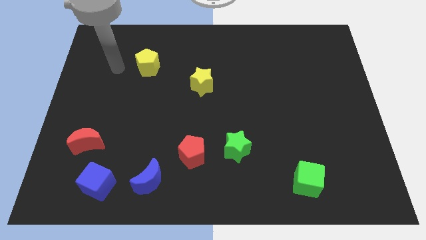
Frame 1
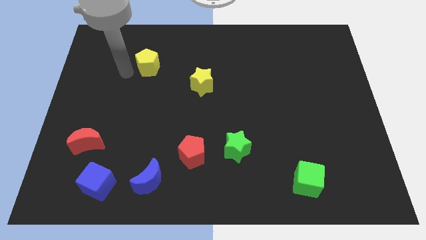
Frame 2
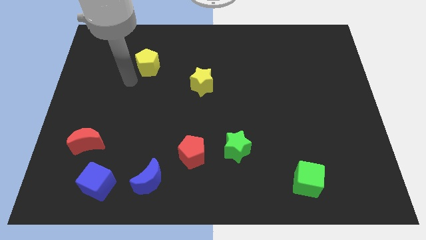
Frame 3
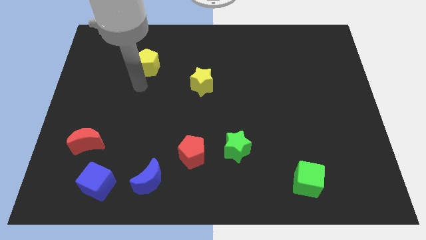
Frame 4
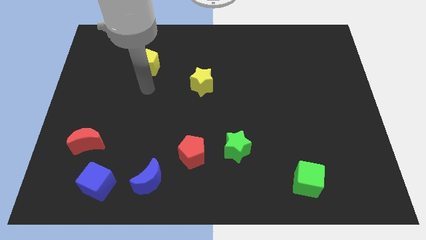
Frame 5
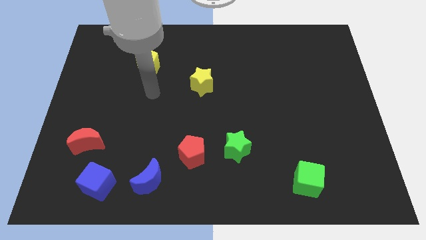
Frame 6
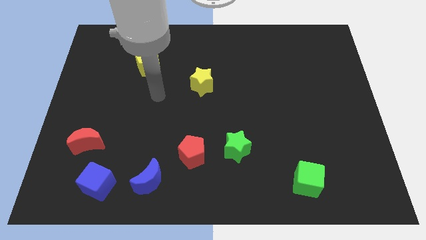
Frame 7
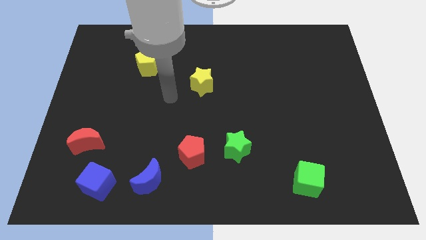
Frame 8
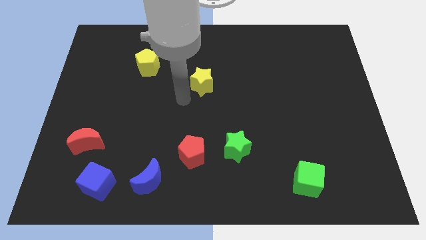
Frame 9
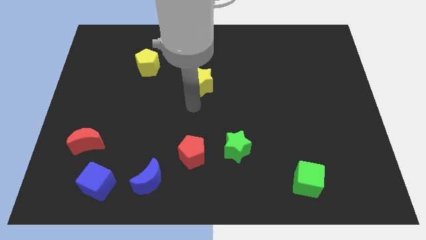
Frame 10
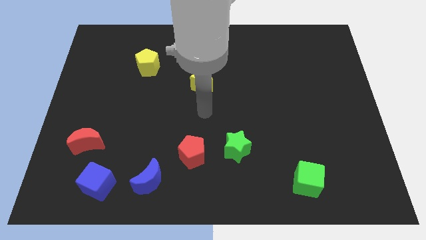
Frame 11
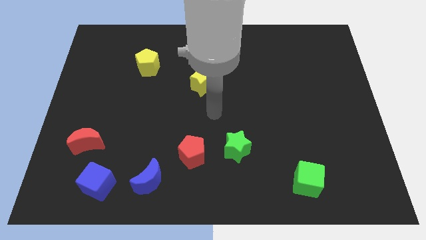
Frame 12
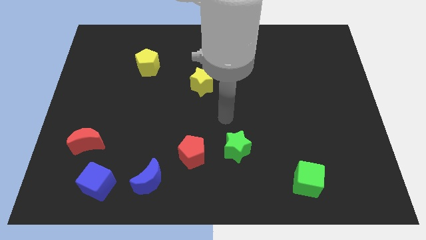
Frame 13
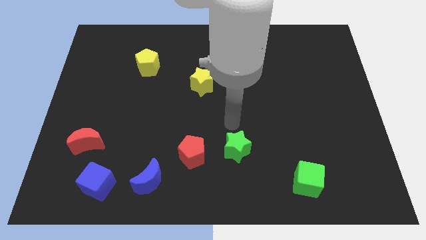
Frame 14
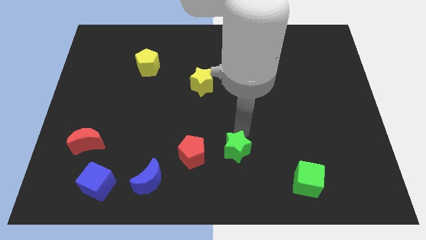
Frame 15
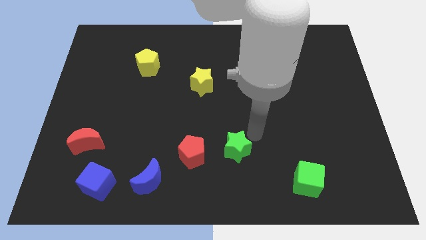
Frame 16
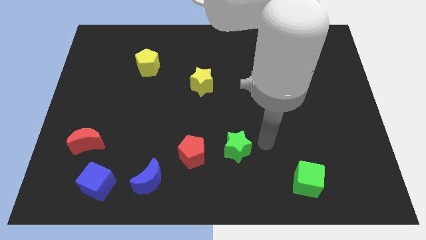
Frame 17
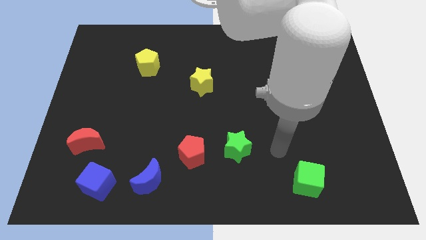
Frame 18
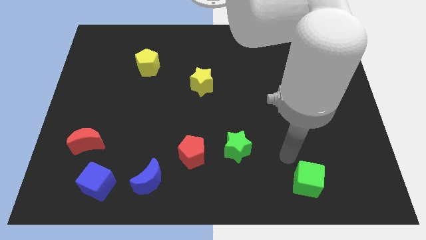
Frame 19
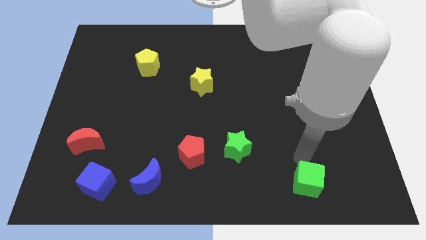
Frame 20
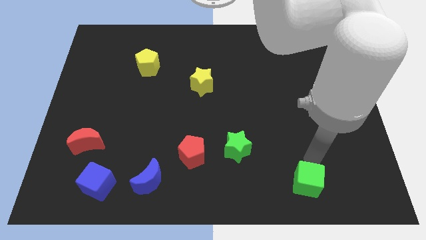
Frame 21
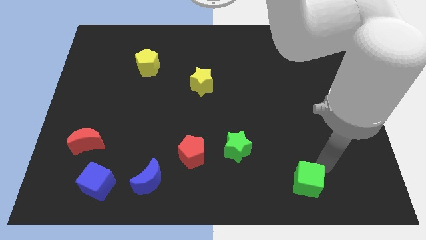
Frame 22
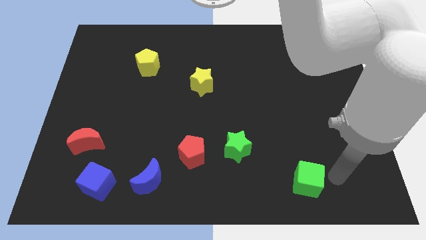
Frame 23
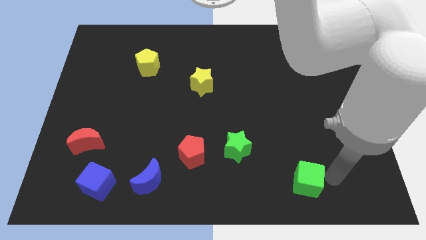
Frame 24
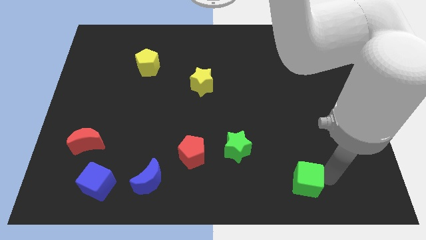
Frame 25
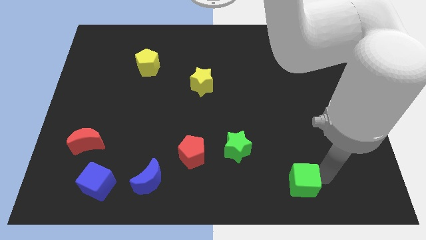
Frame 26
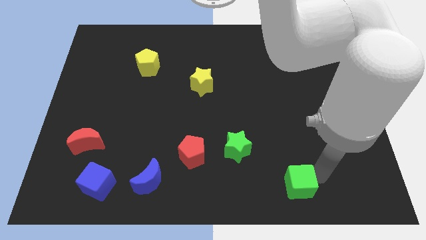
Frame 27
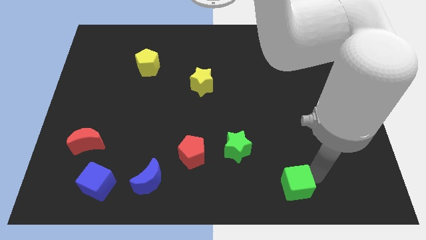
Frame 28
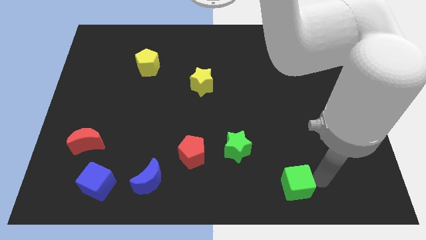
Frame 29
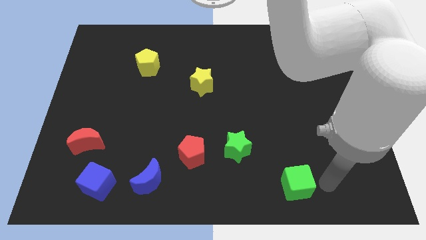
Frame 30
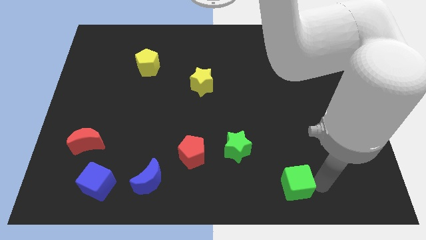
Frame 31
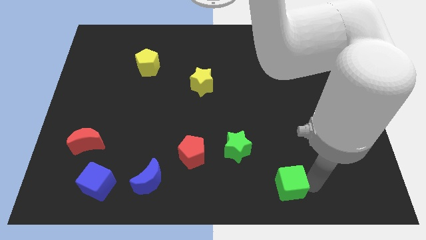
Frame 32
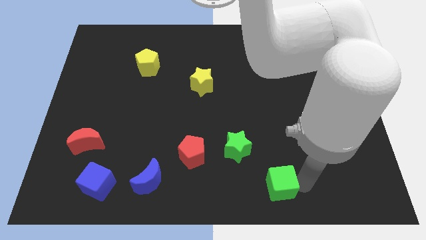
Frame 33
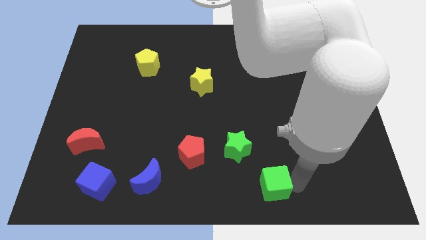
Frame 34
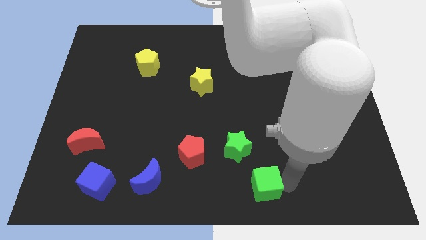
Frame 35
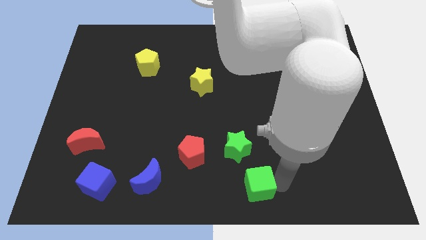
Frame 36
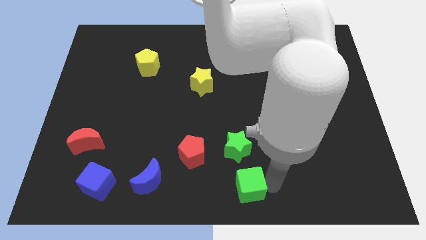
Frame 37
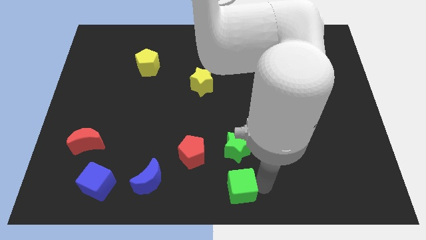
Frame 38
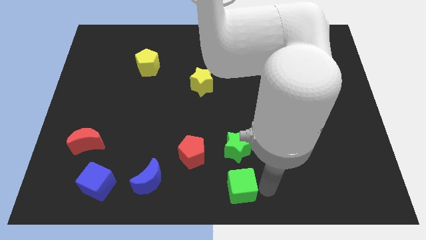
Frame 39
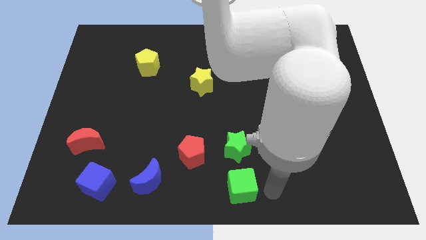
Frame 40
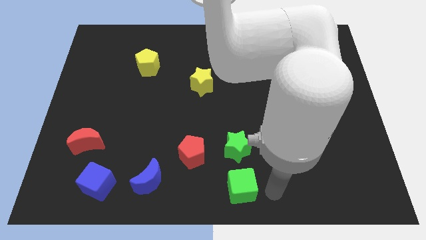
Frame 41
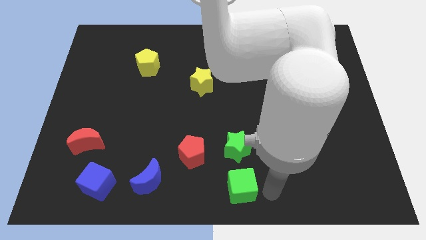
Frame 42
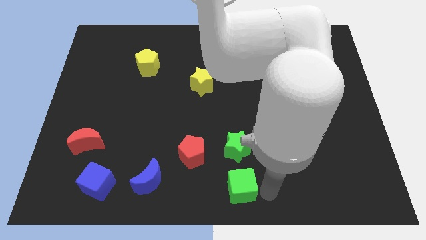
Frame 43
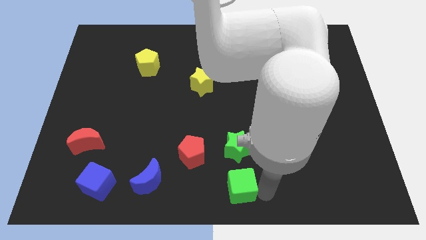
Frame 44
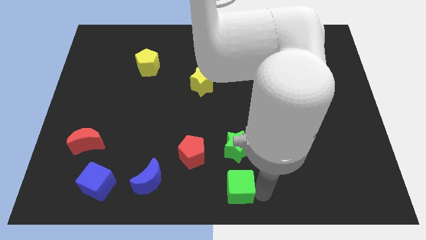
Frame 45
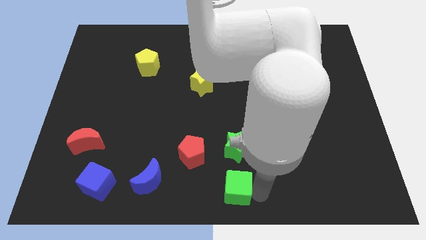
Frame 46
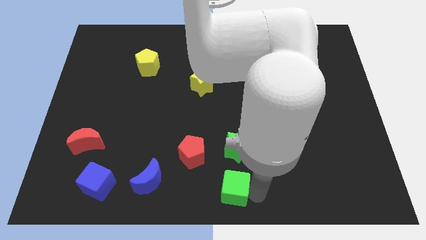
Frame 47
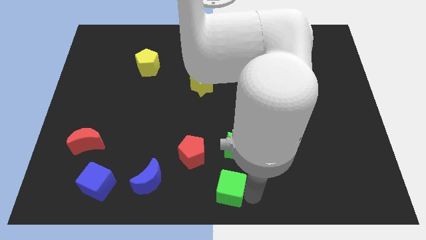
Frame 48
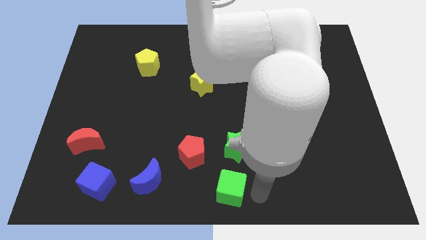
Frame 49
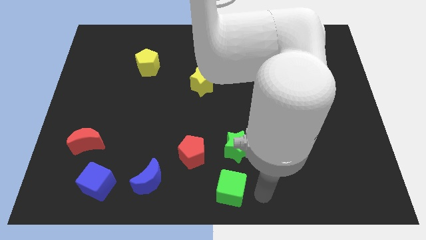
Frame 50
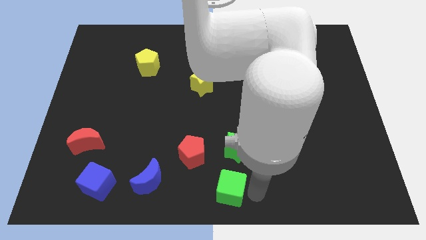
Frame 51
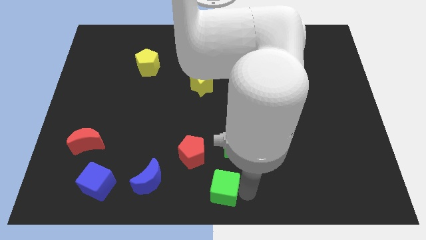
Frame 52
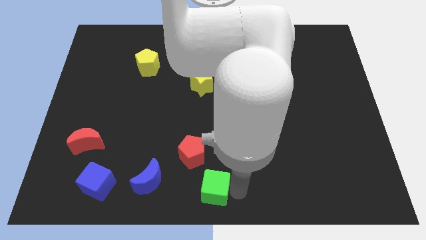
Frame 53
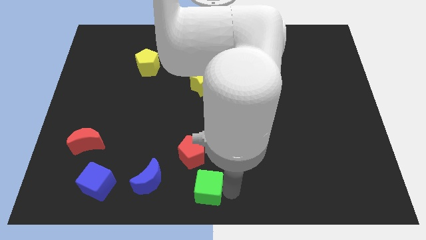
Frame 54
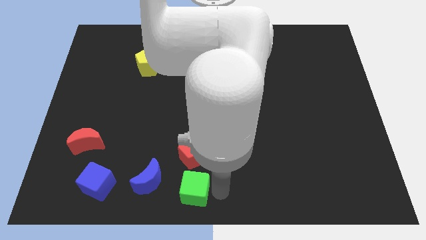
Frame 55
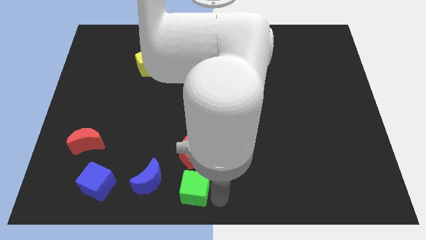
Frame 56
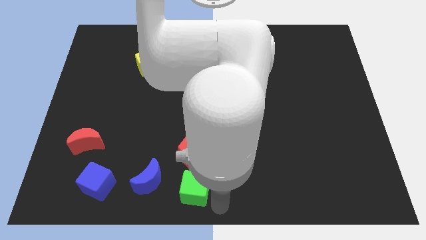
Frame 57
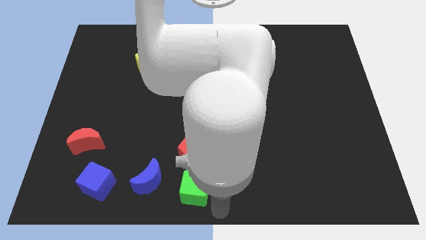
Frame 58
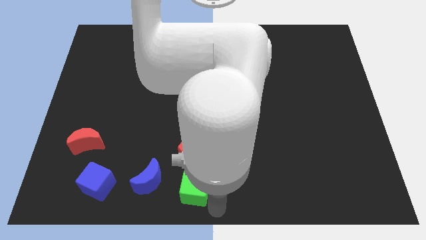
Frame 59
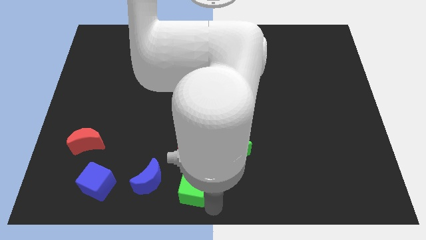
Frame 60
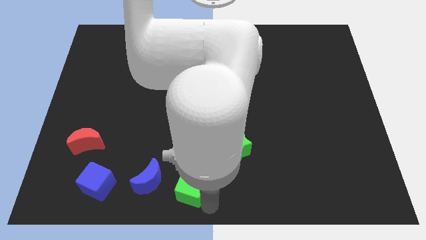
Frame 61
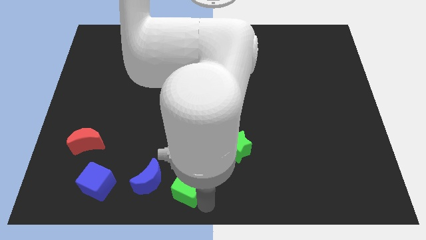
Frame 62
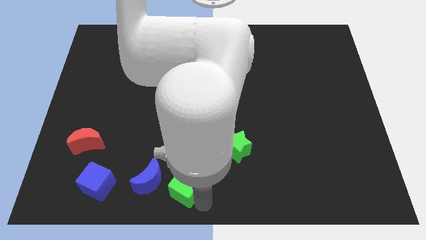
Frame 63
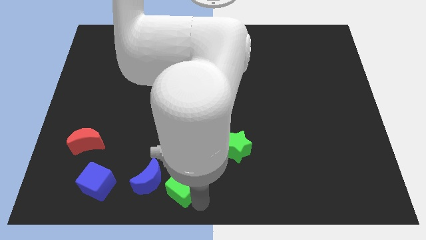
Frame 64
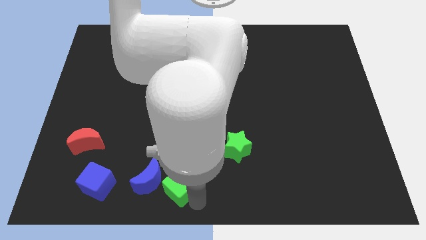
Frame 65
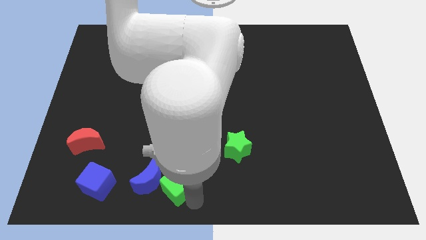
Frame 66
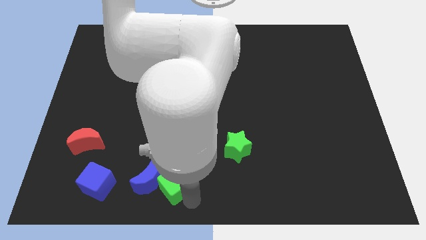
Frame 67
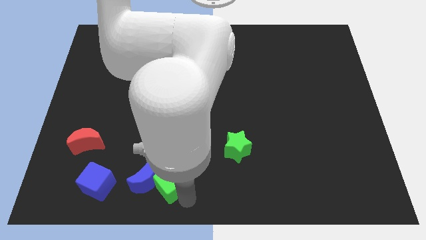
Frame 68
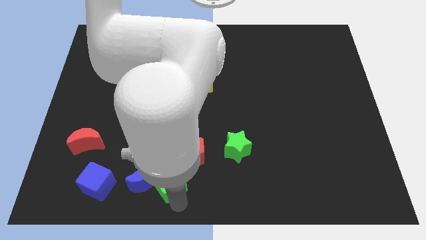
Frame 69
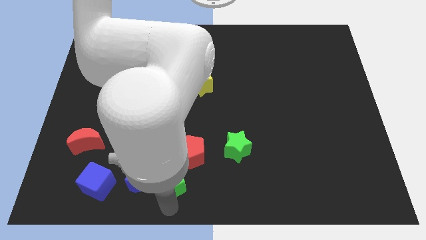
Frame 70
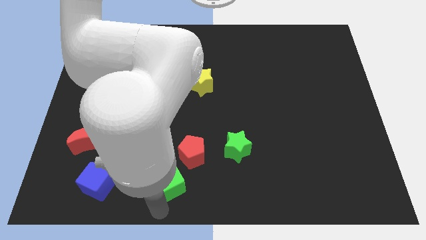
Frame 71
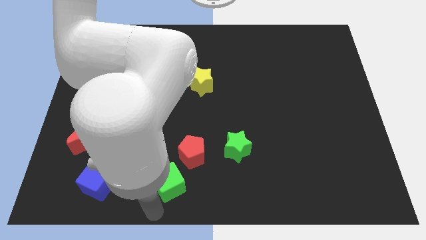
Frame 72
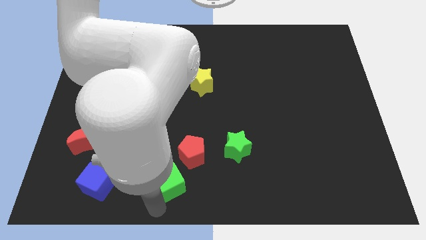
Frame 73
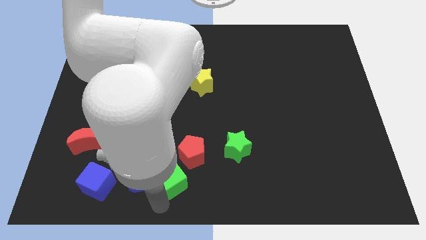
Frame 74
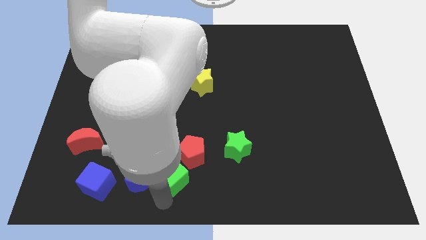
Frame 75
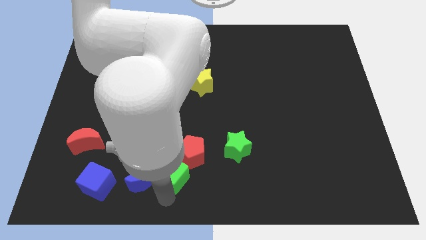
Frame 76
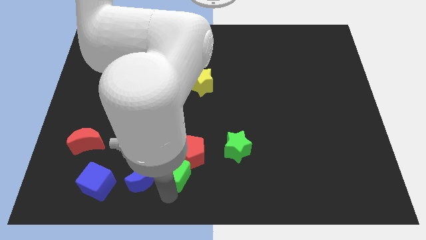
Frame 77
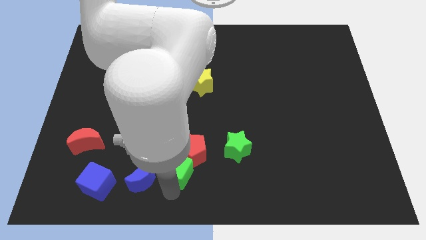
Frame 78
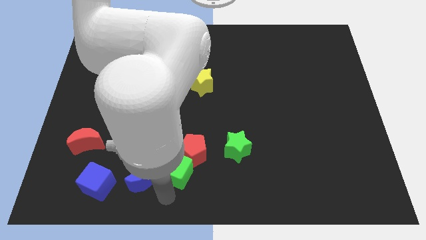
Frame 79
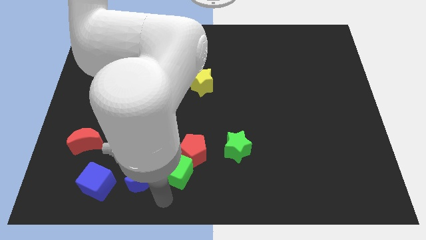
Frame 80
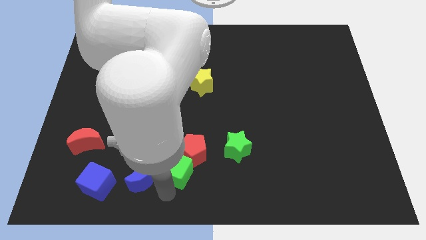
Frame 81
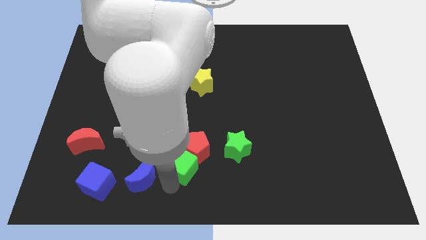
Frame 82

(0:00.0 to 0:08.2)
put the green cube to the left side of the green star
